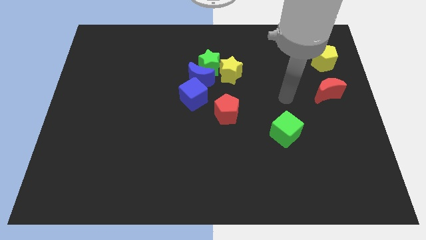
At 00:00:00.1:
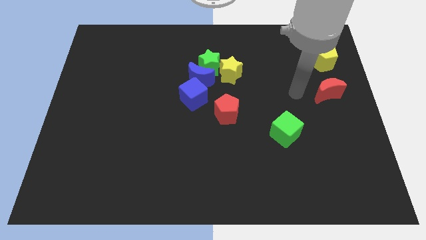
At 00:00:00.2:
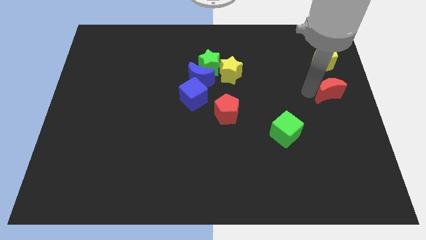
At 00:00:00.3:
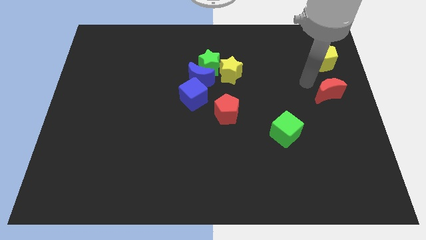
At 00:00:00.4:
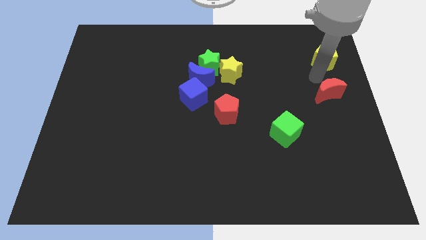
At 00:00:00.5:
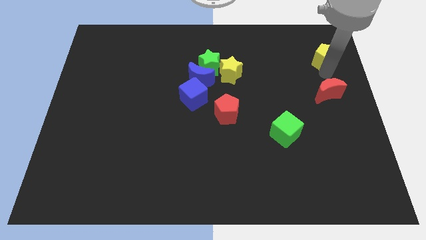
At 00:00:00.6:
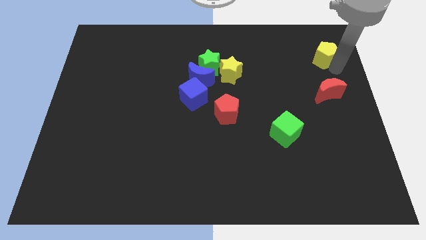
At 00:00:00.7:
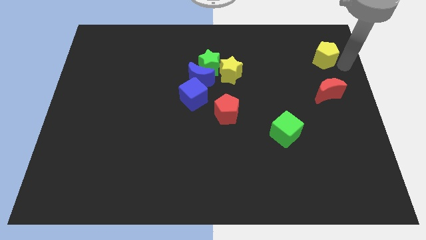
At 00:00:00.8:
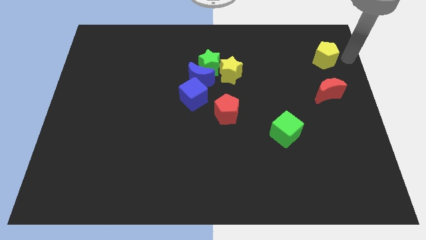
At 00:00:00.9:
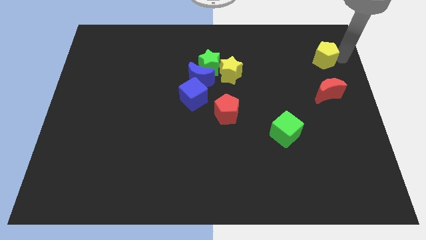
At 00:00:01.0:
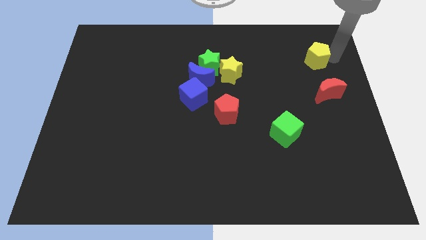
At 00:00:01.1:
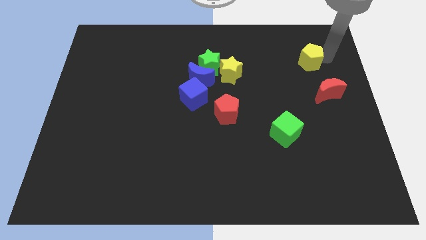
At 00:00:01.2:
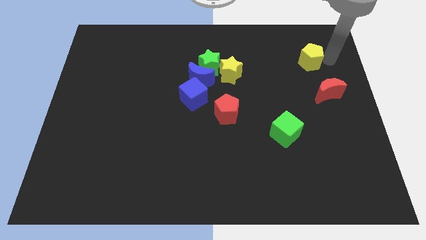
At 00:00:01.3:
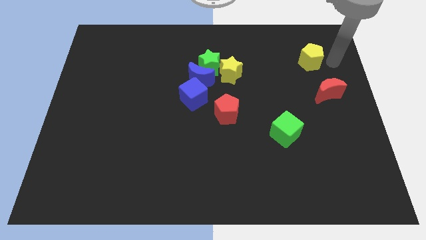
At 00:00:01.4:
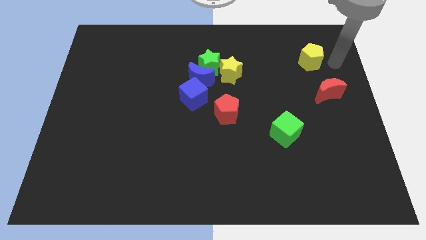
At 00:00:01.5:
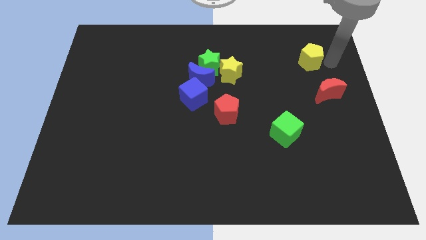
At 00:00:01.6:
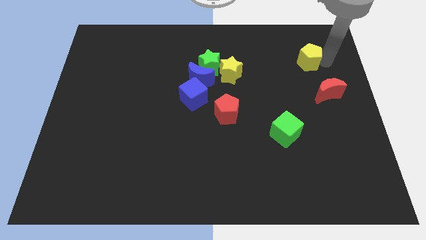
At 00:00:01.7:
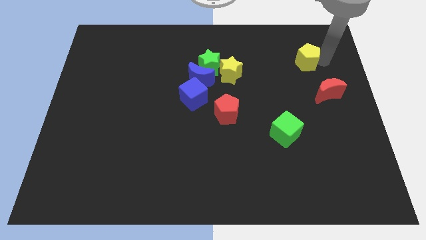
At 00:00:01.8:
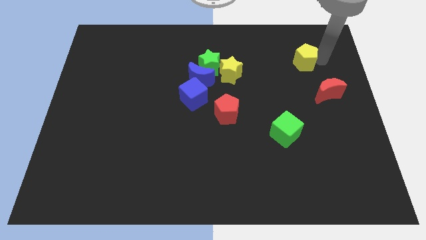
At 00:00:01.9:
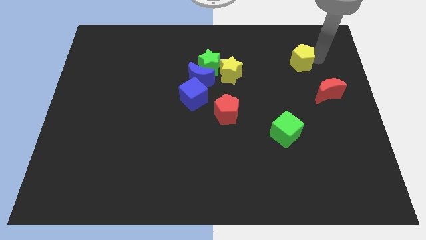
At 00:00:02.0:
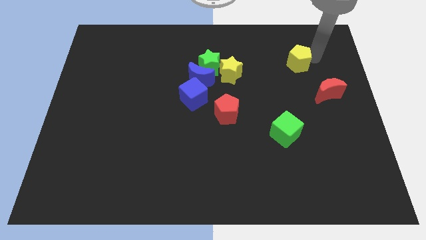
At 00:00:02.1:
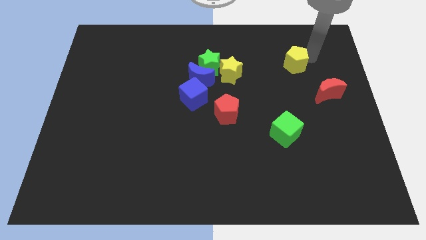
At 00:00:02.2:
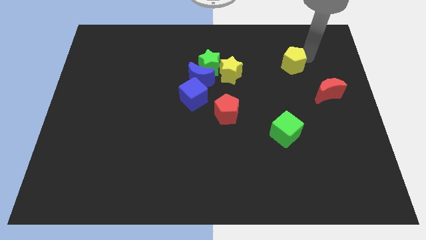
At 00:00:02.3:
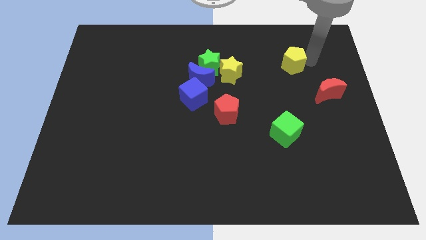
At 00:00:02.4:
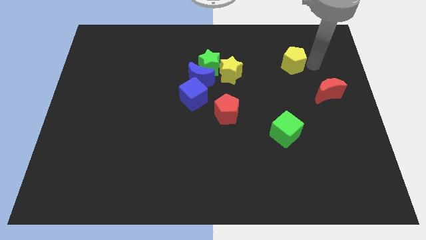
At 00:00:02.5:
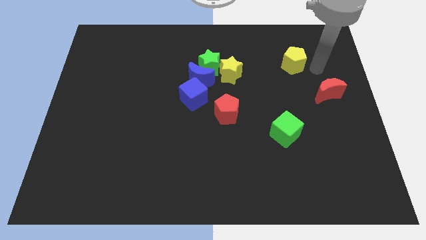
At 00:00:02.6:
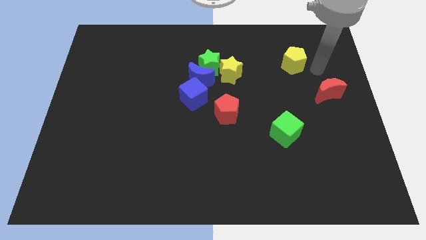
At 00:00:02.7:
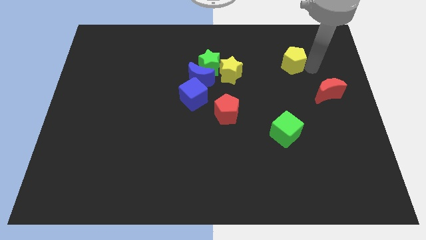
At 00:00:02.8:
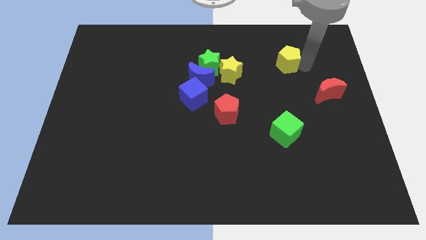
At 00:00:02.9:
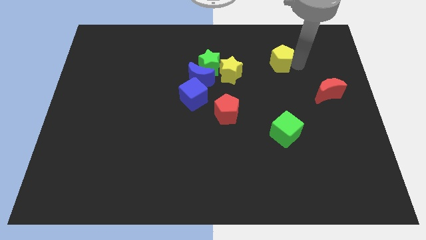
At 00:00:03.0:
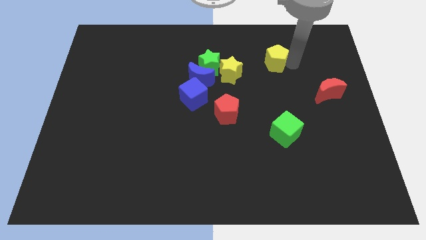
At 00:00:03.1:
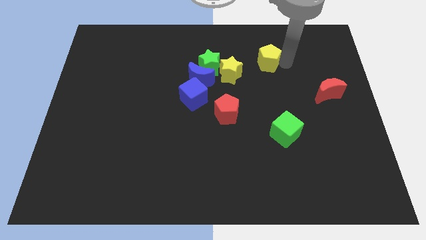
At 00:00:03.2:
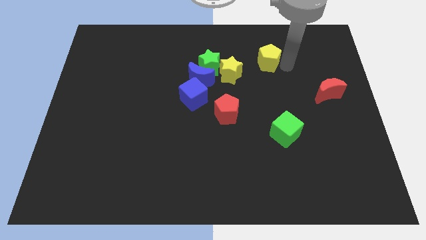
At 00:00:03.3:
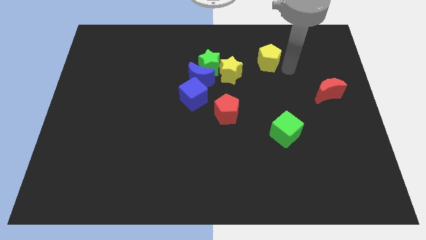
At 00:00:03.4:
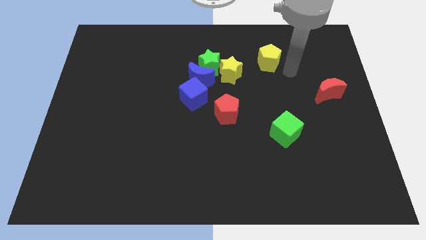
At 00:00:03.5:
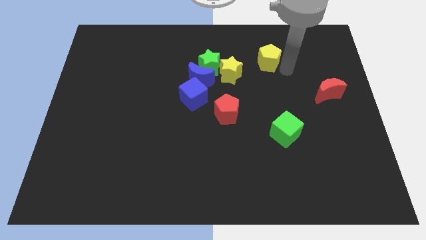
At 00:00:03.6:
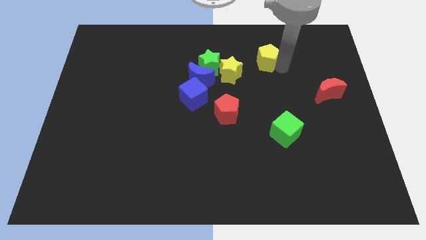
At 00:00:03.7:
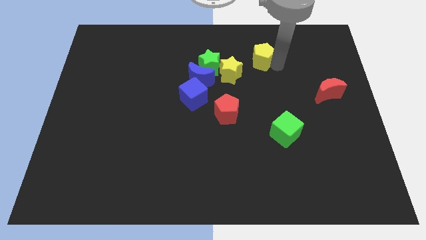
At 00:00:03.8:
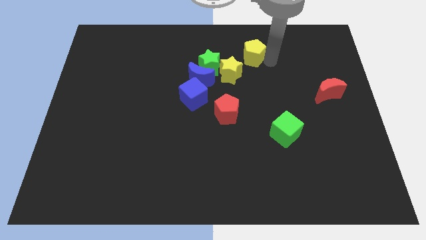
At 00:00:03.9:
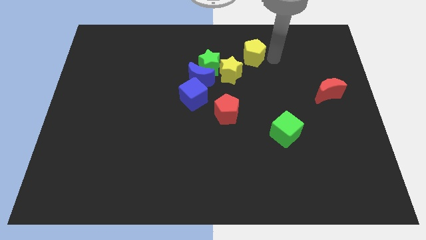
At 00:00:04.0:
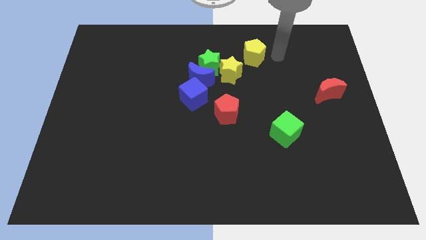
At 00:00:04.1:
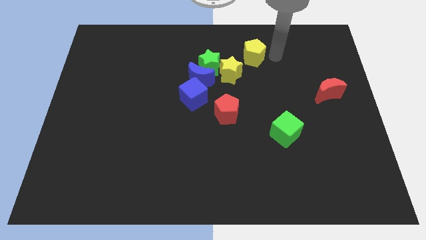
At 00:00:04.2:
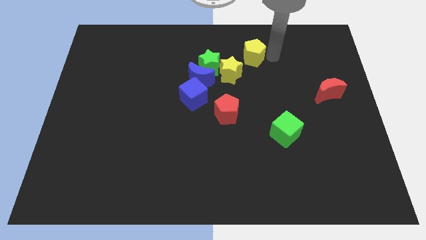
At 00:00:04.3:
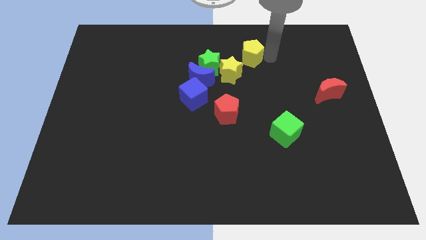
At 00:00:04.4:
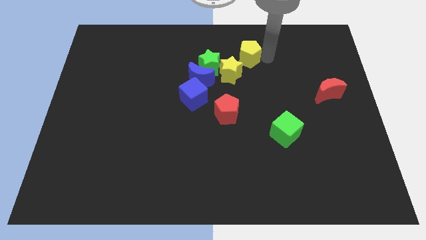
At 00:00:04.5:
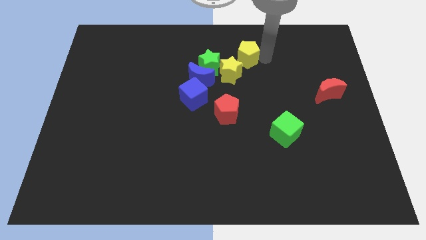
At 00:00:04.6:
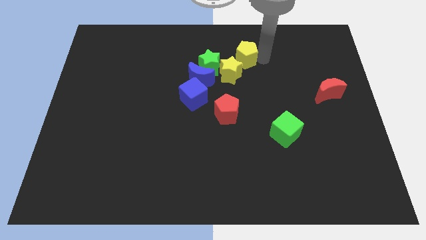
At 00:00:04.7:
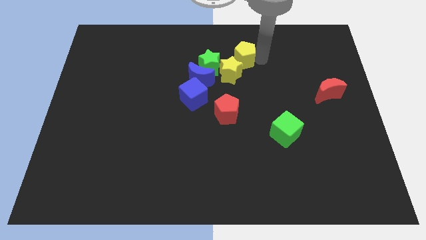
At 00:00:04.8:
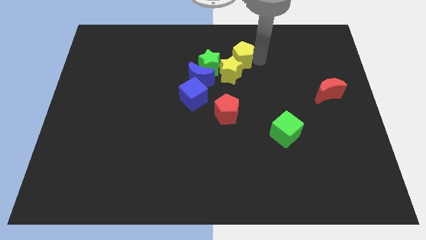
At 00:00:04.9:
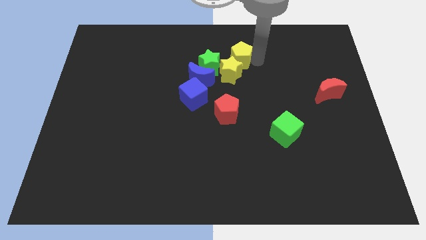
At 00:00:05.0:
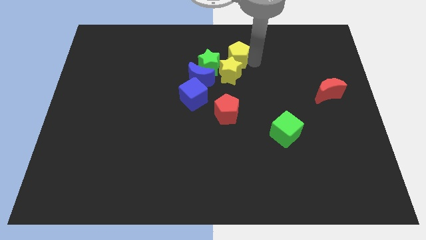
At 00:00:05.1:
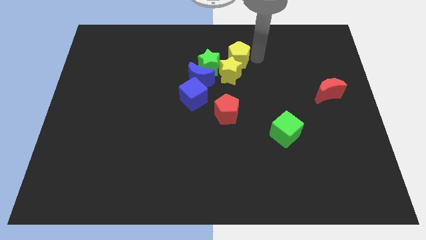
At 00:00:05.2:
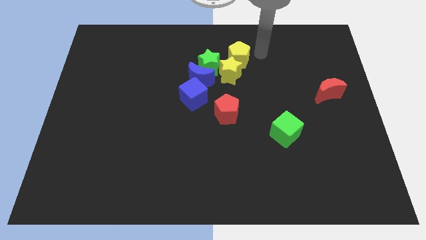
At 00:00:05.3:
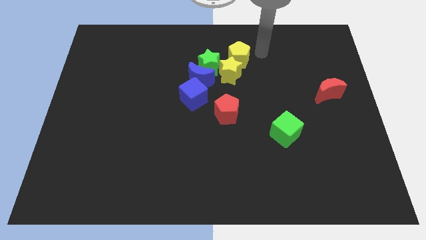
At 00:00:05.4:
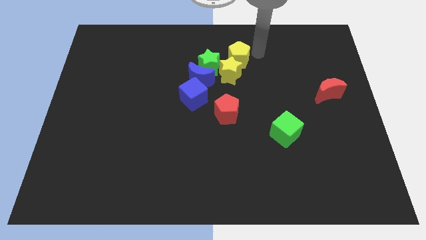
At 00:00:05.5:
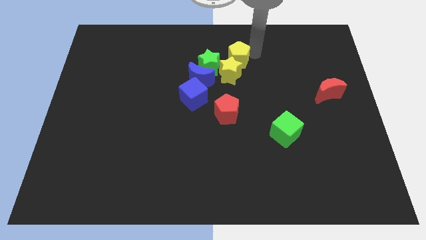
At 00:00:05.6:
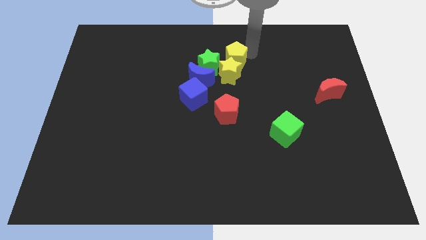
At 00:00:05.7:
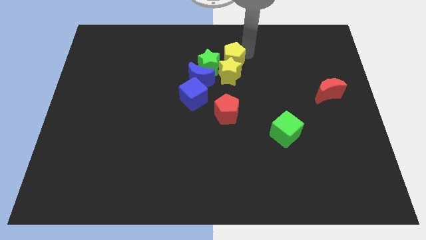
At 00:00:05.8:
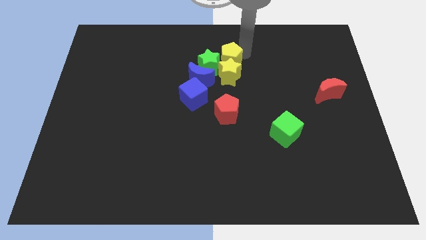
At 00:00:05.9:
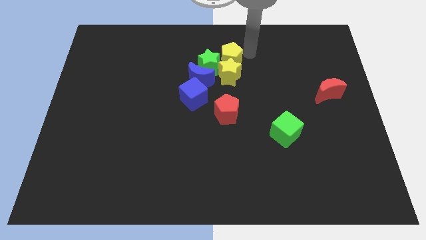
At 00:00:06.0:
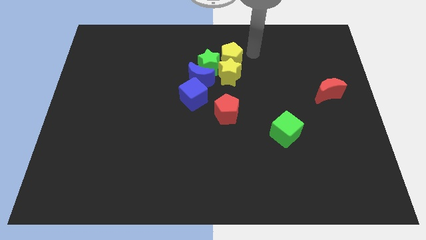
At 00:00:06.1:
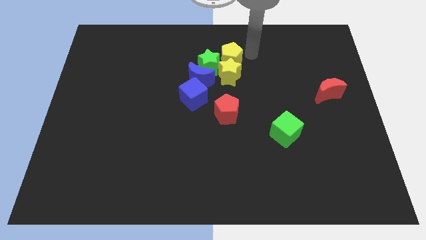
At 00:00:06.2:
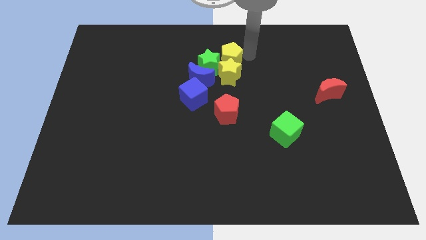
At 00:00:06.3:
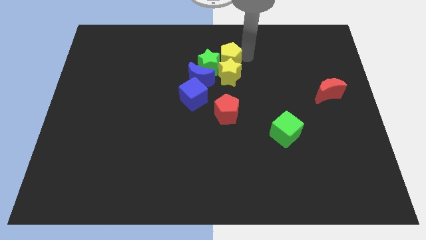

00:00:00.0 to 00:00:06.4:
slide the yellow pentagon close to the green star

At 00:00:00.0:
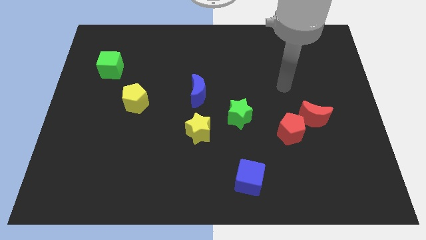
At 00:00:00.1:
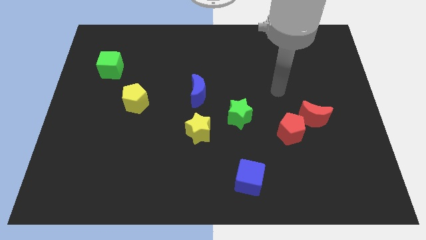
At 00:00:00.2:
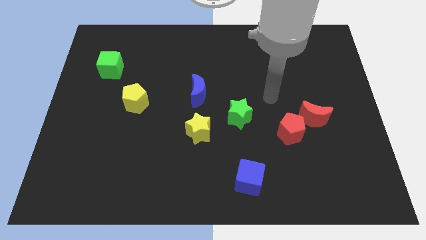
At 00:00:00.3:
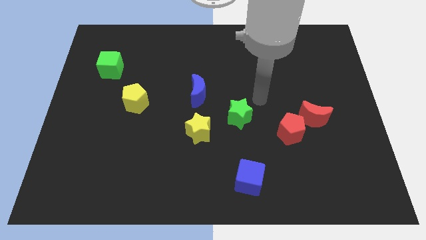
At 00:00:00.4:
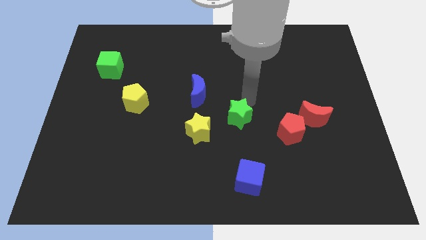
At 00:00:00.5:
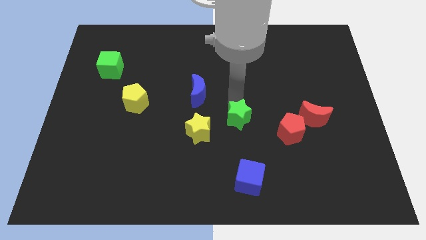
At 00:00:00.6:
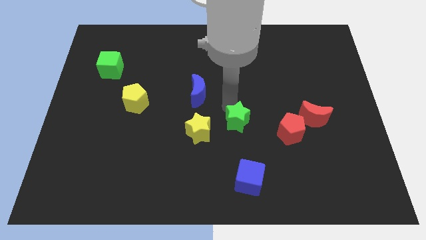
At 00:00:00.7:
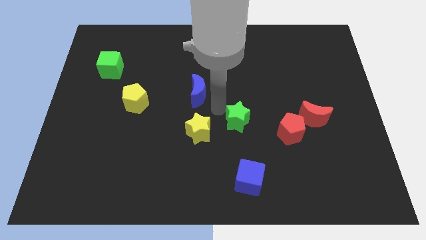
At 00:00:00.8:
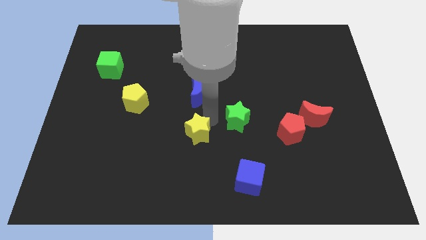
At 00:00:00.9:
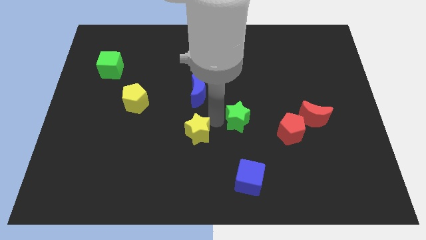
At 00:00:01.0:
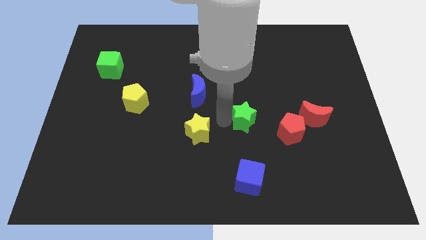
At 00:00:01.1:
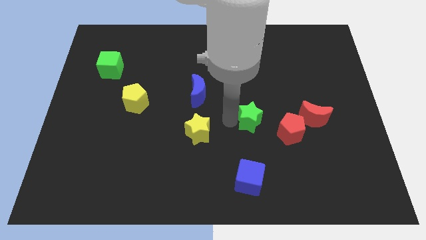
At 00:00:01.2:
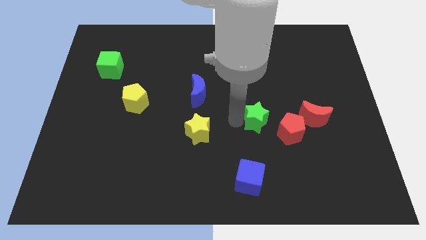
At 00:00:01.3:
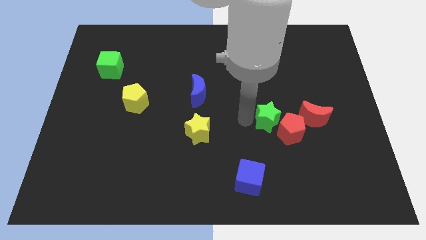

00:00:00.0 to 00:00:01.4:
slide the green star next to the red pentagon

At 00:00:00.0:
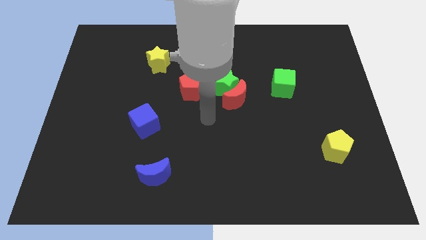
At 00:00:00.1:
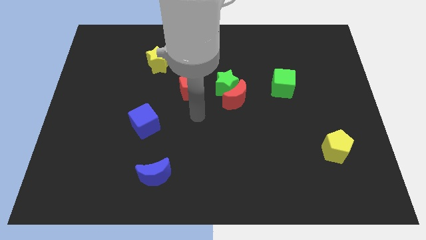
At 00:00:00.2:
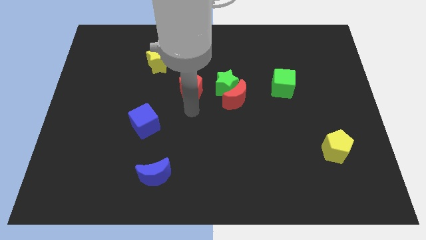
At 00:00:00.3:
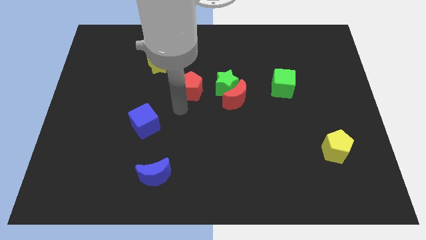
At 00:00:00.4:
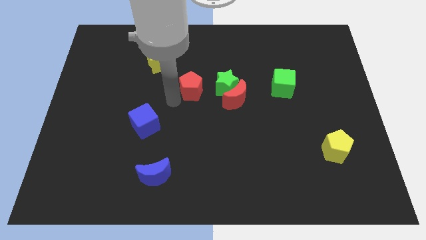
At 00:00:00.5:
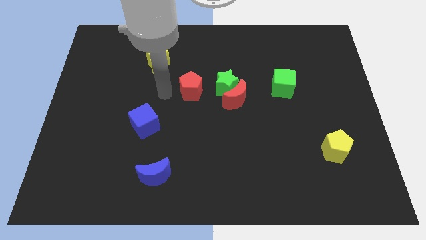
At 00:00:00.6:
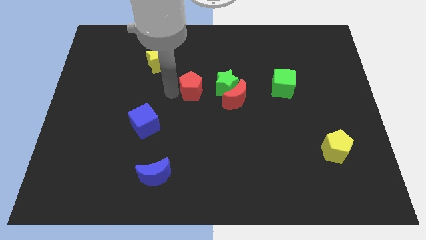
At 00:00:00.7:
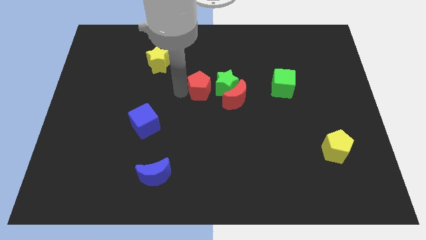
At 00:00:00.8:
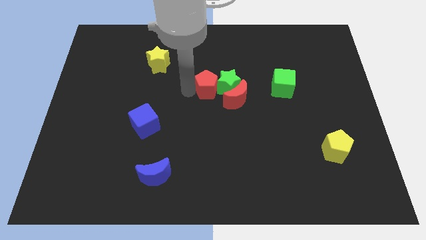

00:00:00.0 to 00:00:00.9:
push the red pentagon next to the green star
